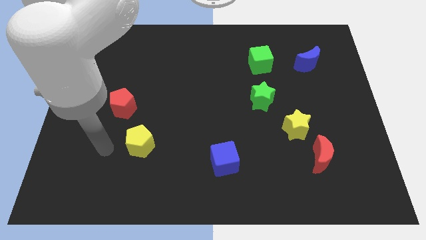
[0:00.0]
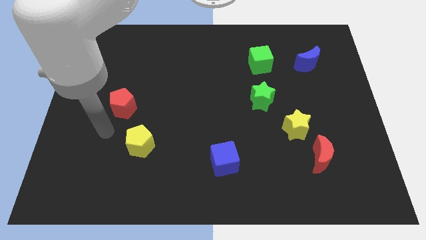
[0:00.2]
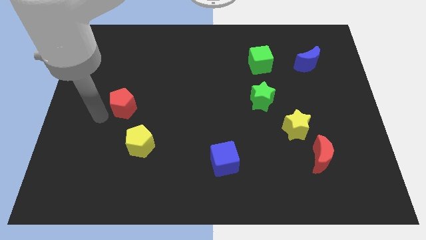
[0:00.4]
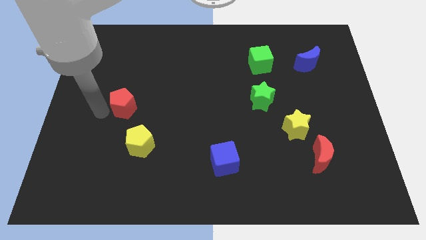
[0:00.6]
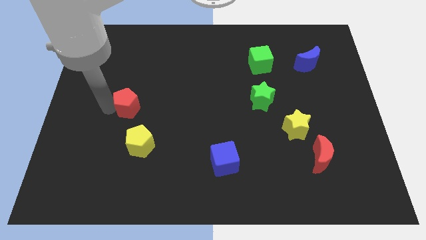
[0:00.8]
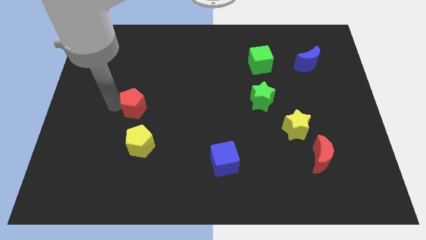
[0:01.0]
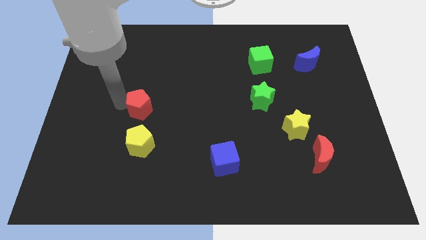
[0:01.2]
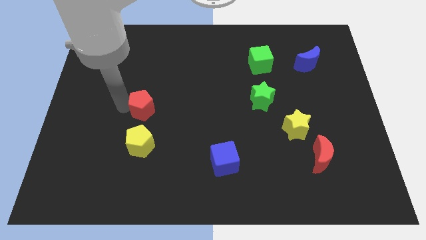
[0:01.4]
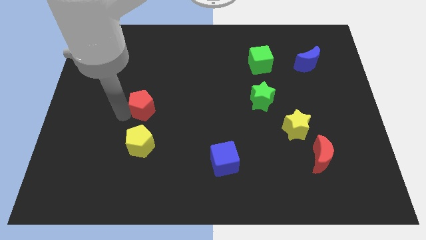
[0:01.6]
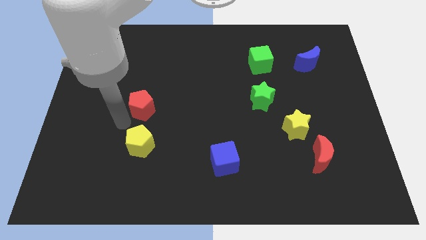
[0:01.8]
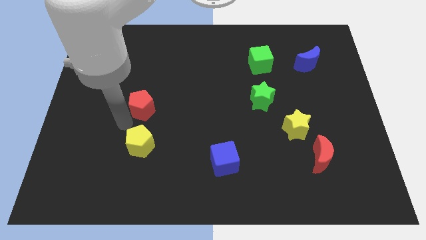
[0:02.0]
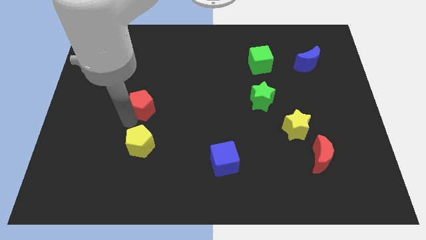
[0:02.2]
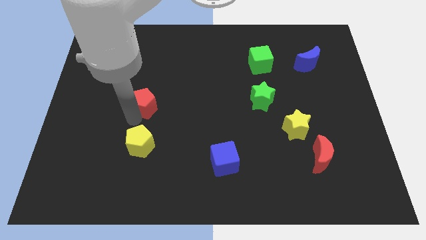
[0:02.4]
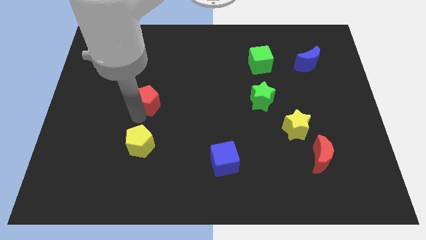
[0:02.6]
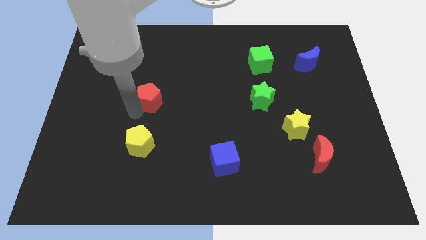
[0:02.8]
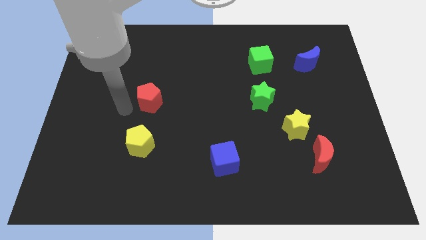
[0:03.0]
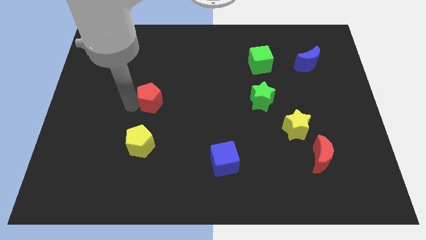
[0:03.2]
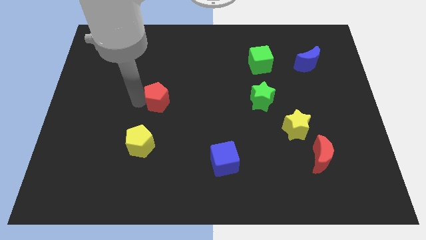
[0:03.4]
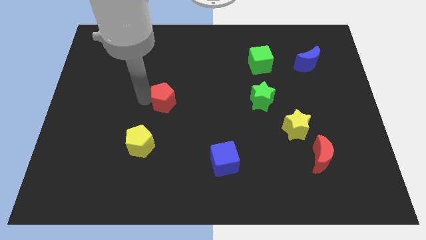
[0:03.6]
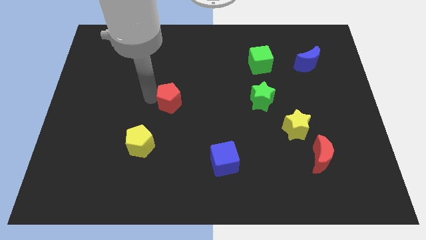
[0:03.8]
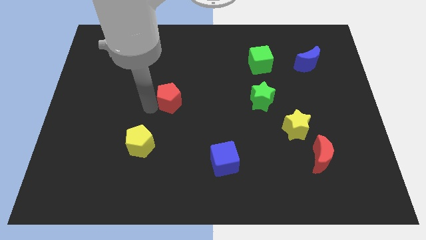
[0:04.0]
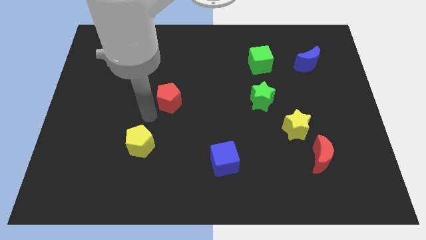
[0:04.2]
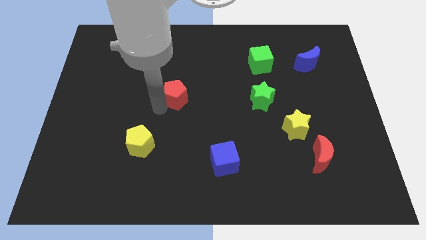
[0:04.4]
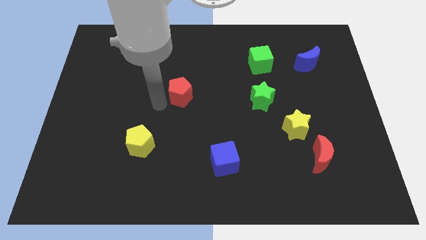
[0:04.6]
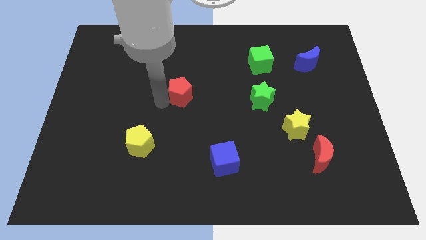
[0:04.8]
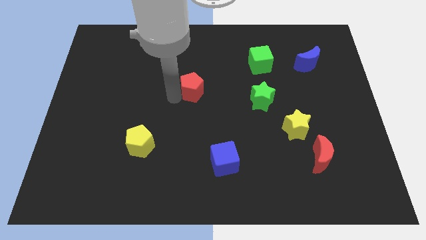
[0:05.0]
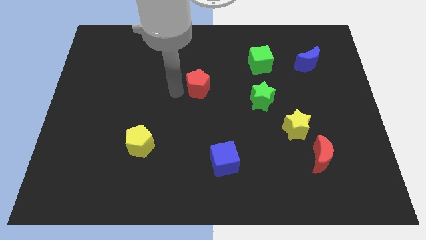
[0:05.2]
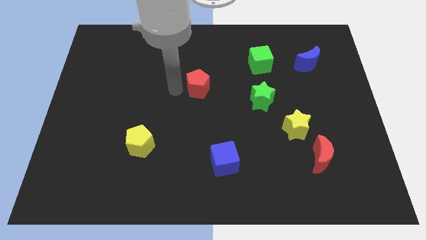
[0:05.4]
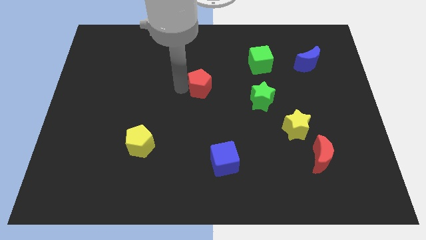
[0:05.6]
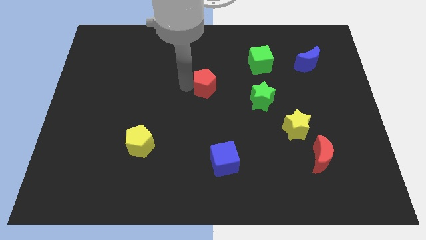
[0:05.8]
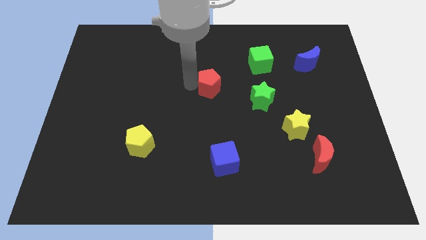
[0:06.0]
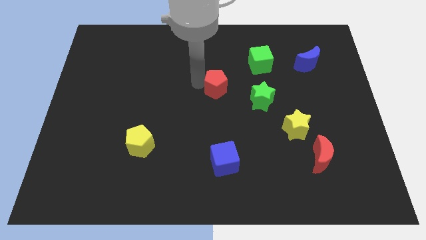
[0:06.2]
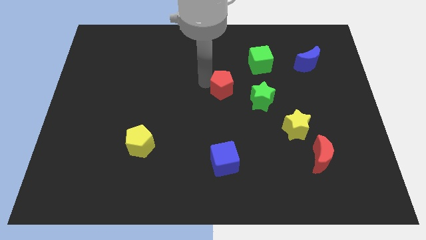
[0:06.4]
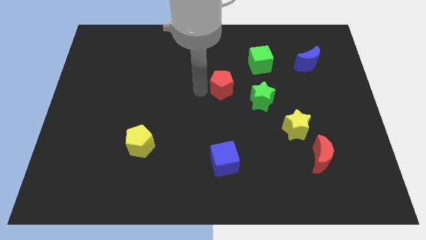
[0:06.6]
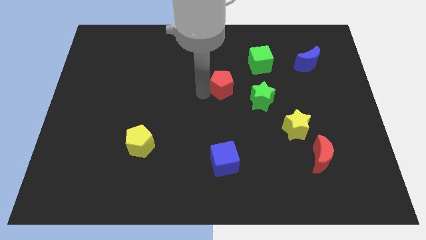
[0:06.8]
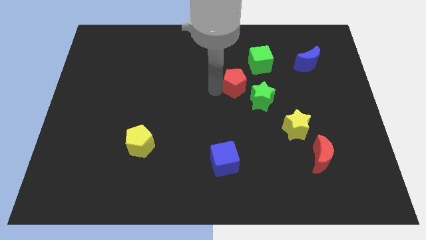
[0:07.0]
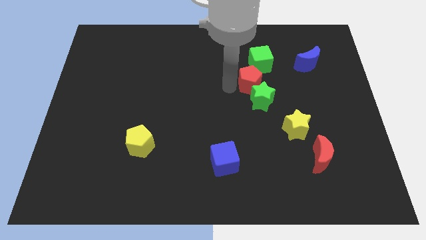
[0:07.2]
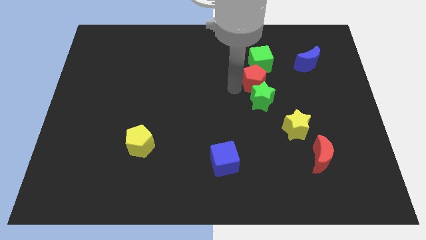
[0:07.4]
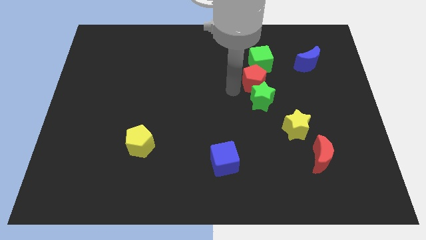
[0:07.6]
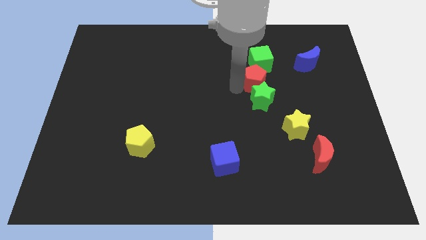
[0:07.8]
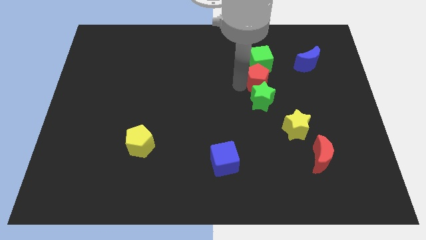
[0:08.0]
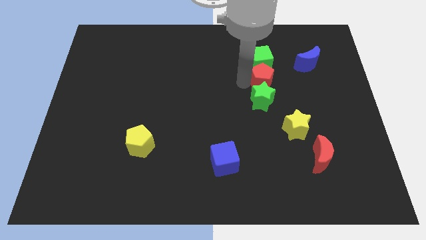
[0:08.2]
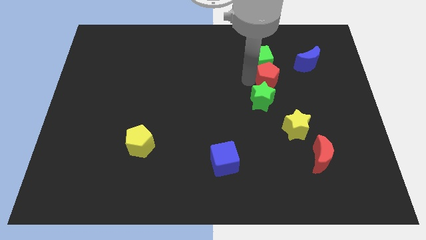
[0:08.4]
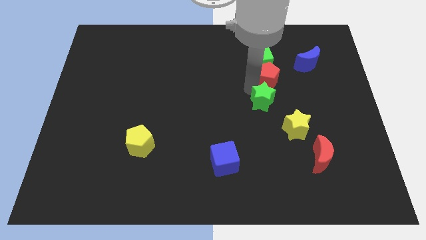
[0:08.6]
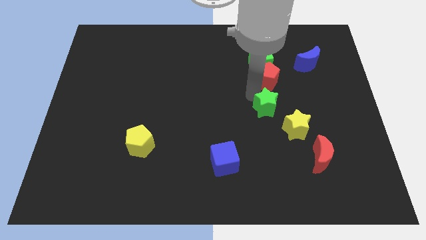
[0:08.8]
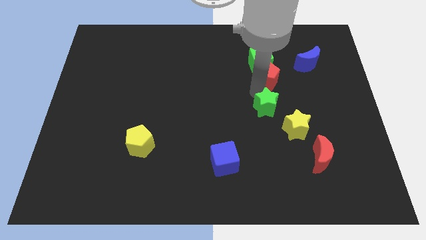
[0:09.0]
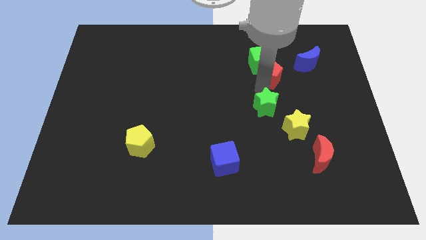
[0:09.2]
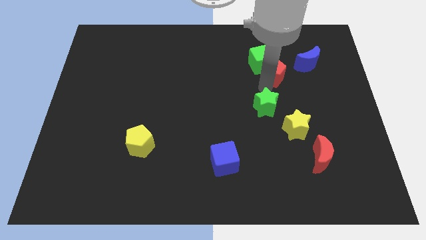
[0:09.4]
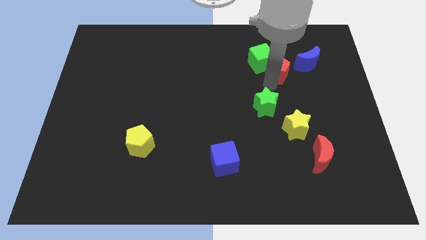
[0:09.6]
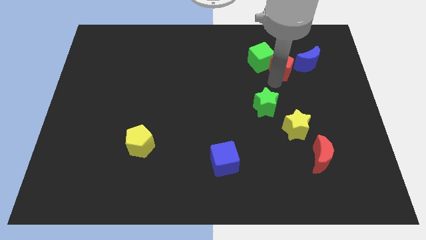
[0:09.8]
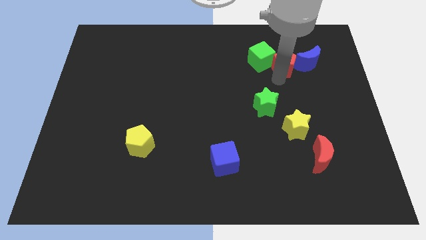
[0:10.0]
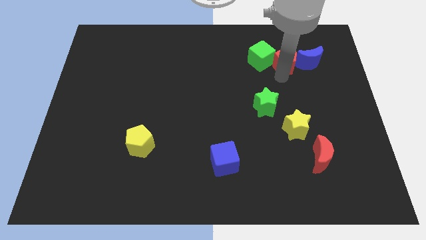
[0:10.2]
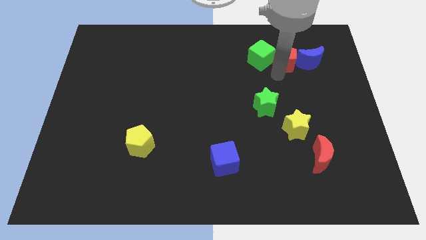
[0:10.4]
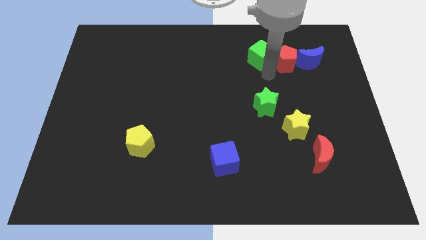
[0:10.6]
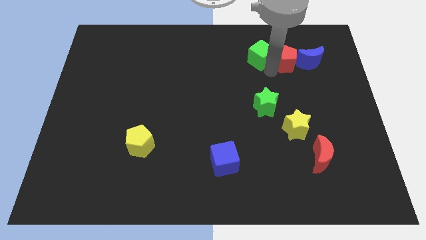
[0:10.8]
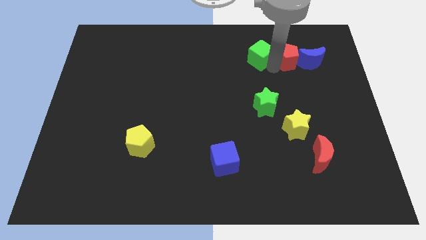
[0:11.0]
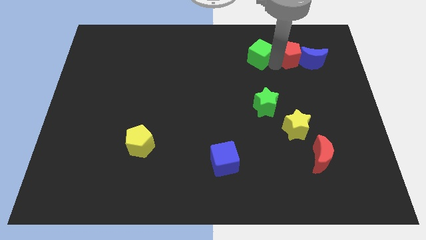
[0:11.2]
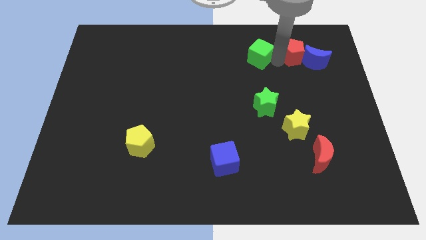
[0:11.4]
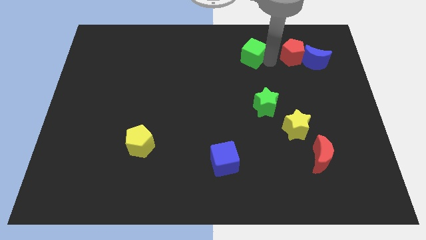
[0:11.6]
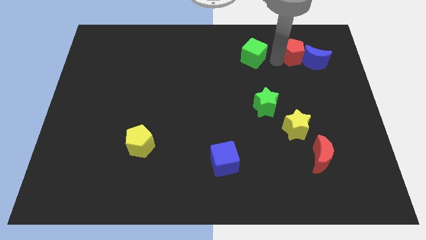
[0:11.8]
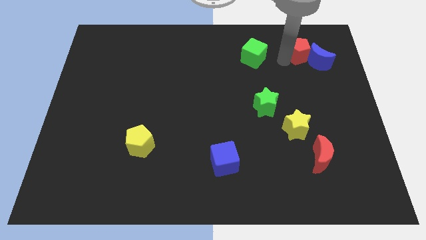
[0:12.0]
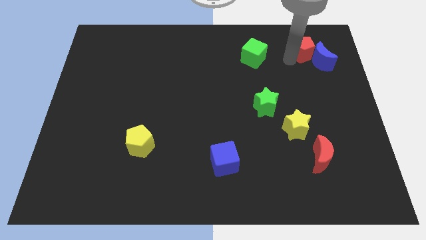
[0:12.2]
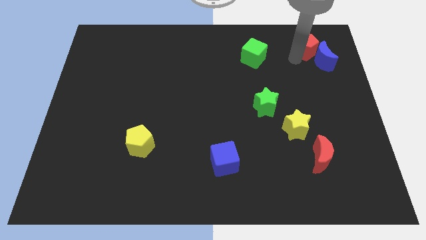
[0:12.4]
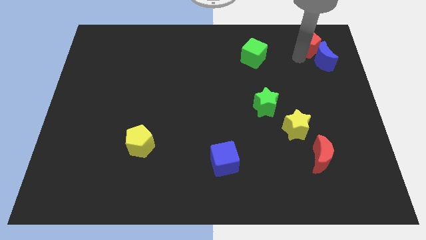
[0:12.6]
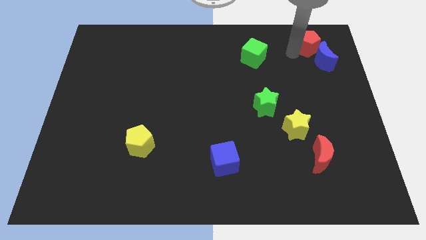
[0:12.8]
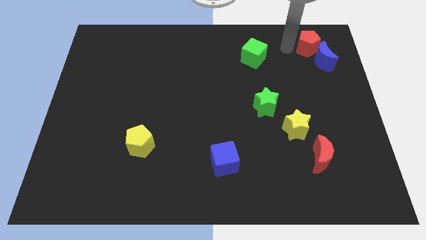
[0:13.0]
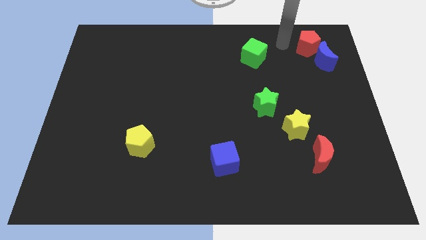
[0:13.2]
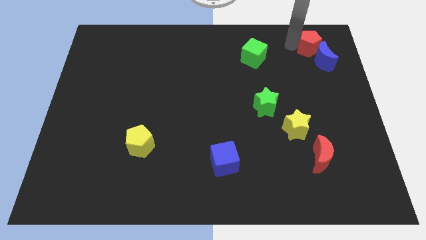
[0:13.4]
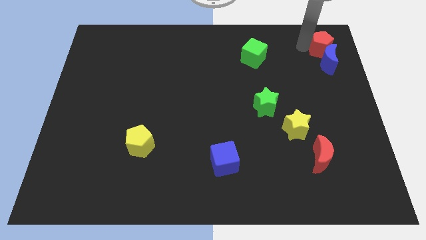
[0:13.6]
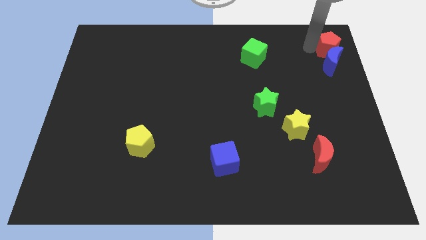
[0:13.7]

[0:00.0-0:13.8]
slide the red pentagon to the top right corner

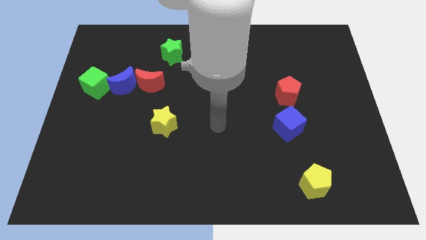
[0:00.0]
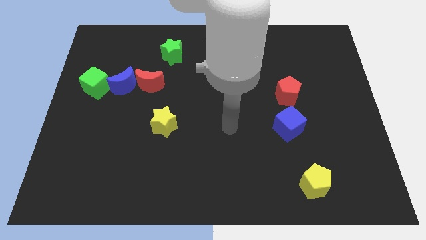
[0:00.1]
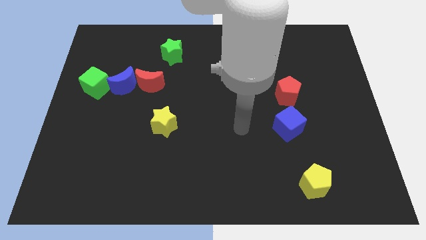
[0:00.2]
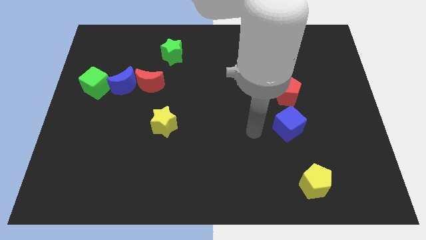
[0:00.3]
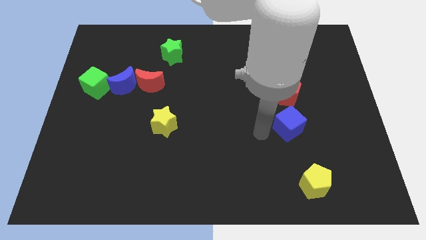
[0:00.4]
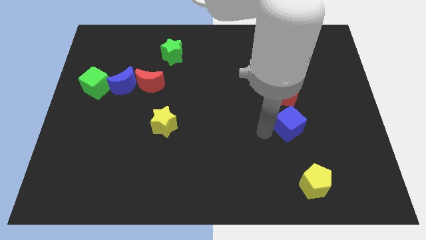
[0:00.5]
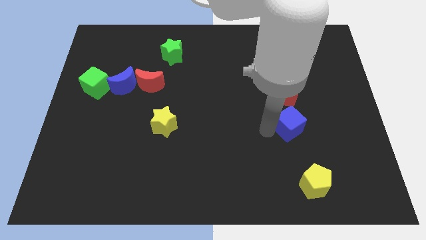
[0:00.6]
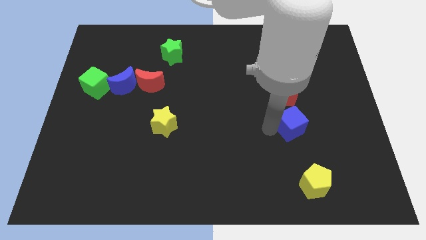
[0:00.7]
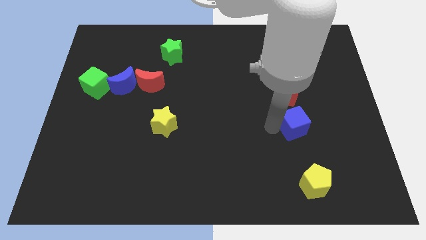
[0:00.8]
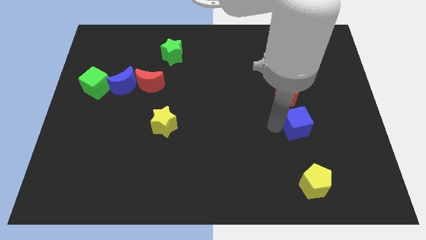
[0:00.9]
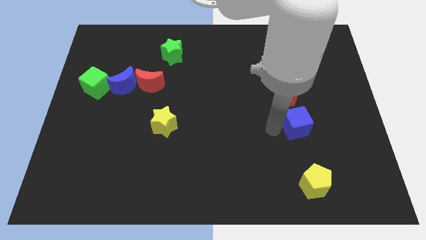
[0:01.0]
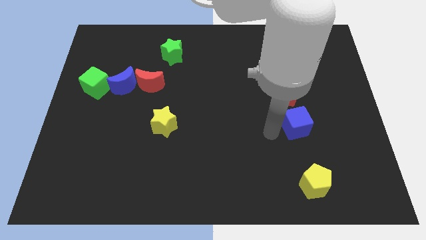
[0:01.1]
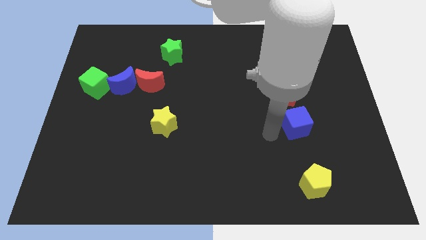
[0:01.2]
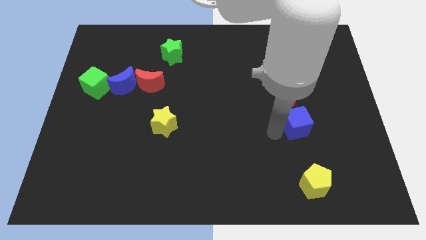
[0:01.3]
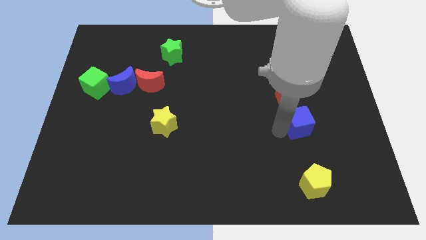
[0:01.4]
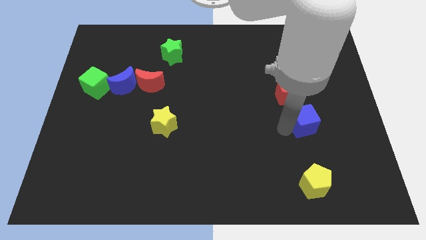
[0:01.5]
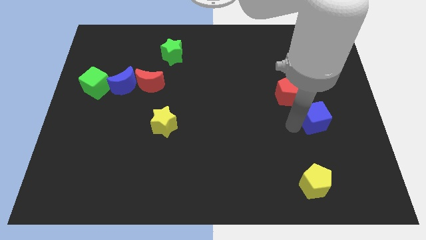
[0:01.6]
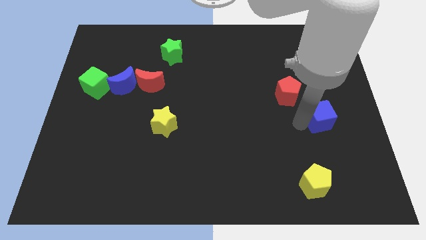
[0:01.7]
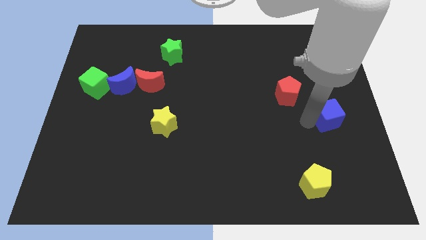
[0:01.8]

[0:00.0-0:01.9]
put the blue cube to the center right
